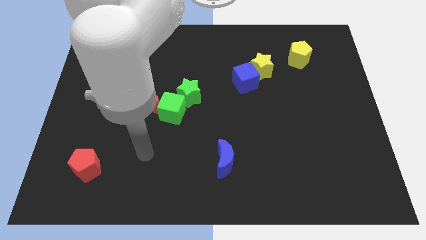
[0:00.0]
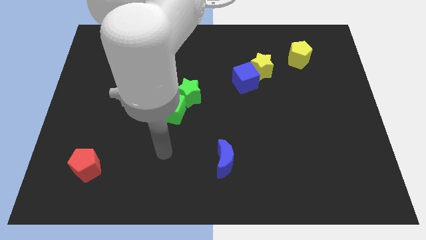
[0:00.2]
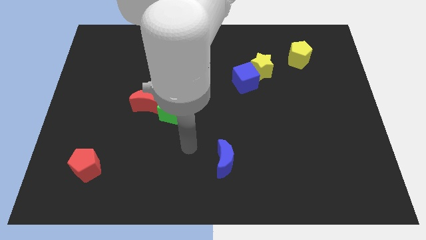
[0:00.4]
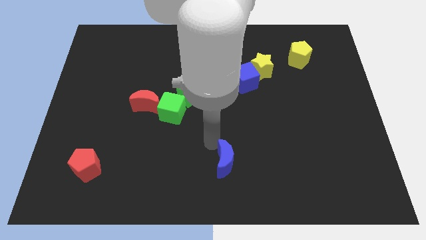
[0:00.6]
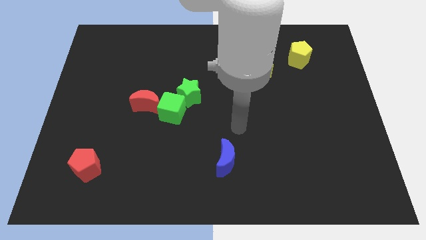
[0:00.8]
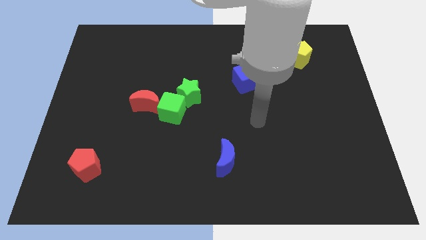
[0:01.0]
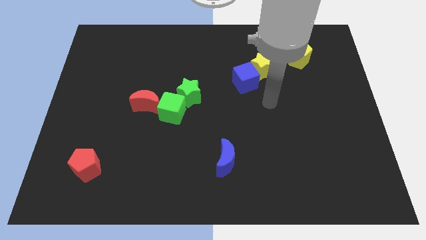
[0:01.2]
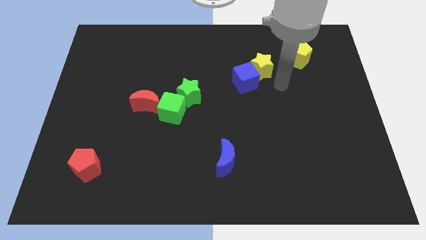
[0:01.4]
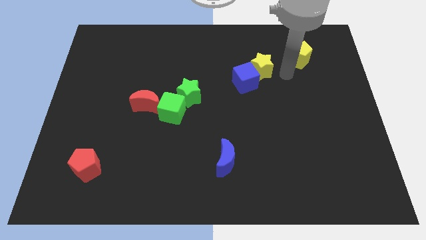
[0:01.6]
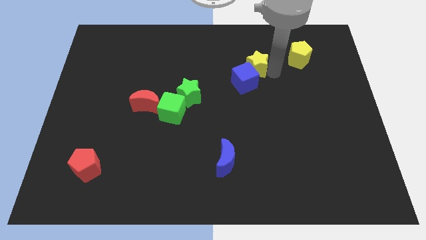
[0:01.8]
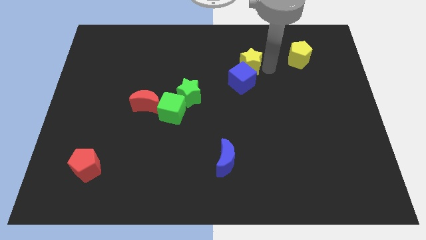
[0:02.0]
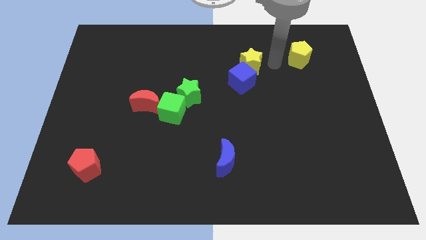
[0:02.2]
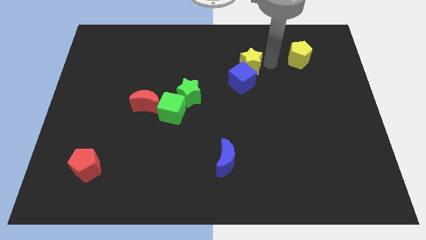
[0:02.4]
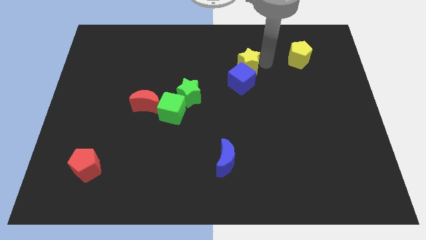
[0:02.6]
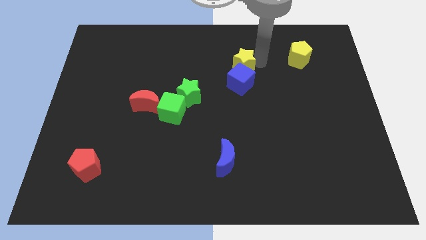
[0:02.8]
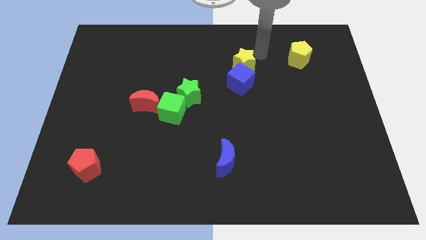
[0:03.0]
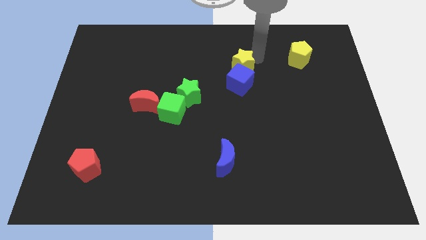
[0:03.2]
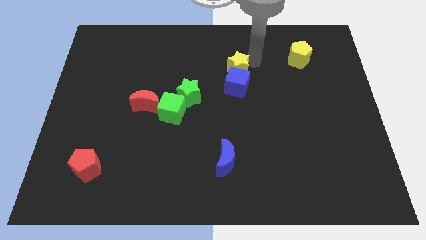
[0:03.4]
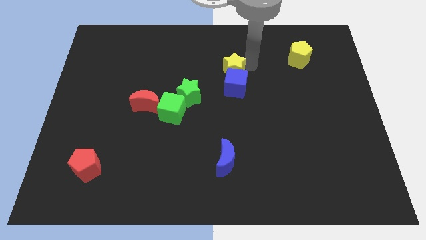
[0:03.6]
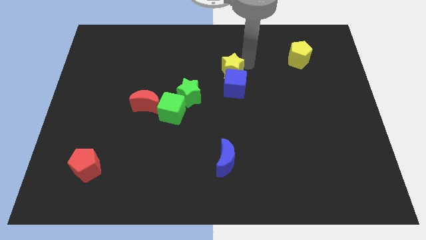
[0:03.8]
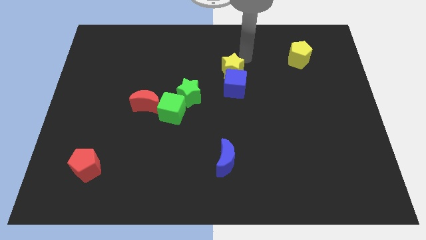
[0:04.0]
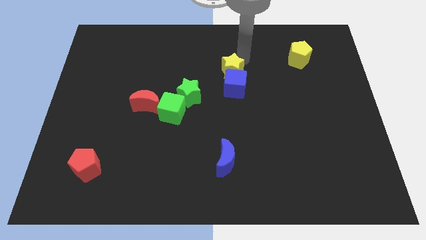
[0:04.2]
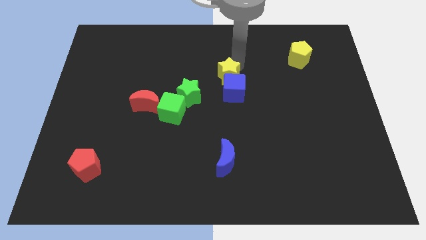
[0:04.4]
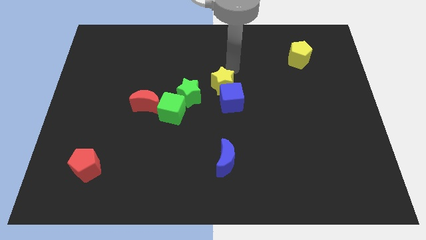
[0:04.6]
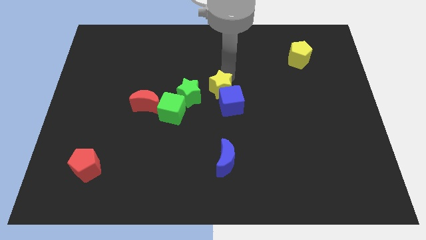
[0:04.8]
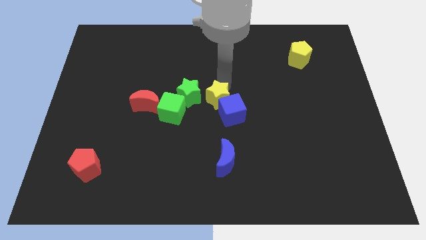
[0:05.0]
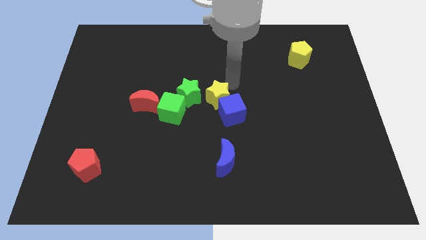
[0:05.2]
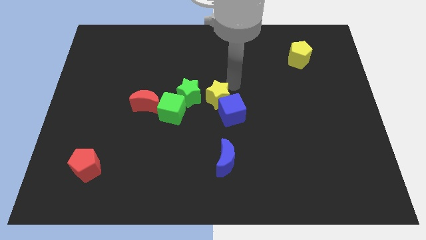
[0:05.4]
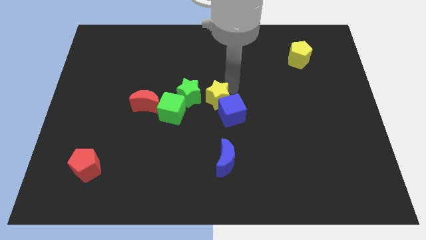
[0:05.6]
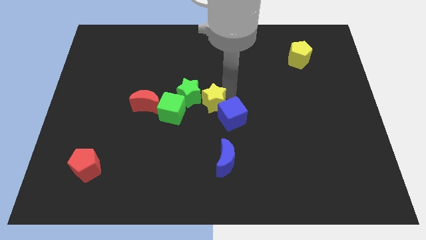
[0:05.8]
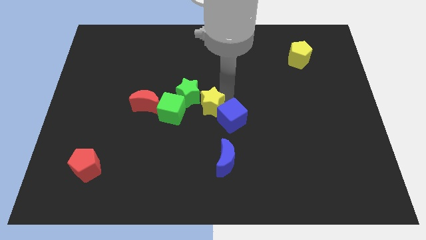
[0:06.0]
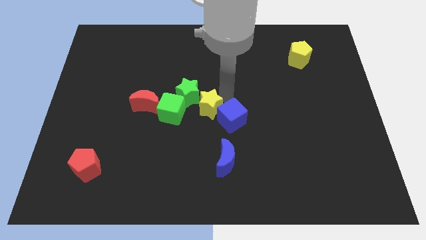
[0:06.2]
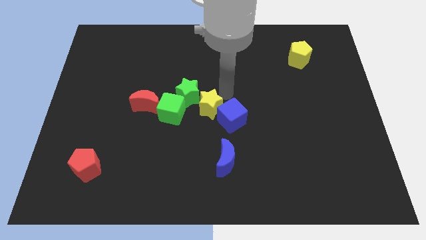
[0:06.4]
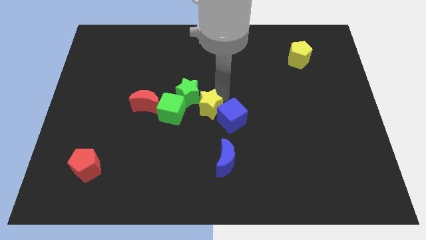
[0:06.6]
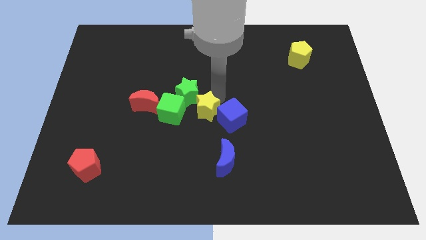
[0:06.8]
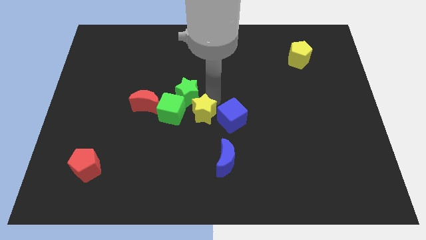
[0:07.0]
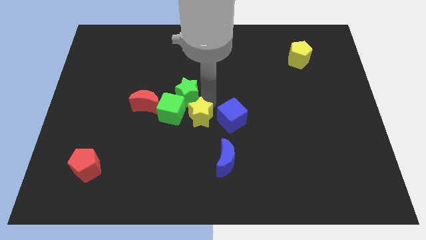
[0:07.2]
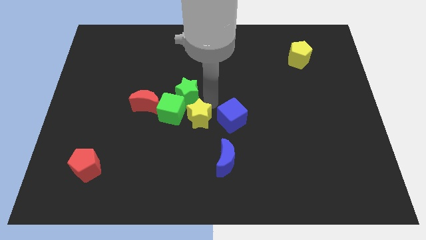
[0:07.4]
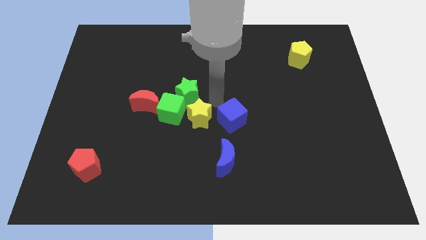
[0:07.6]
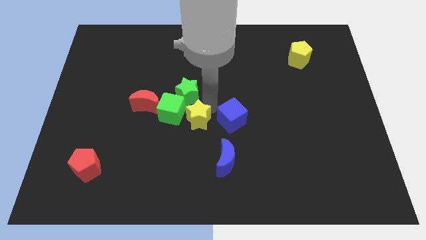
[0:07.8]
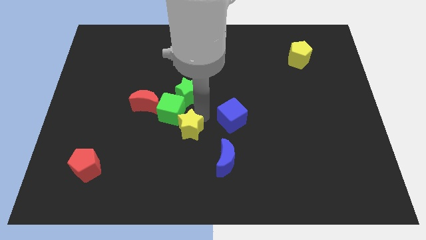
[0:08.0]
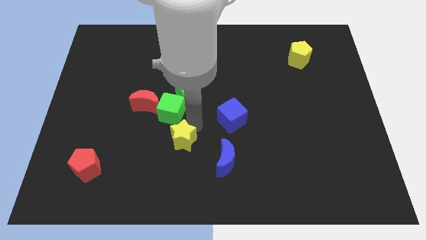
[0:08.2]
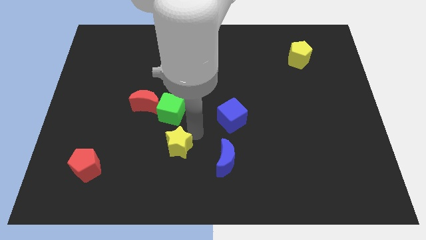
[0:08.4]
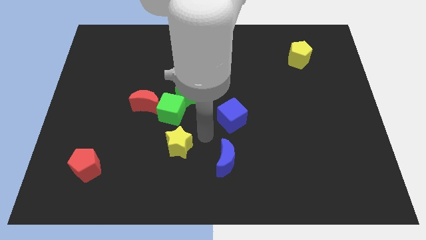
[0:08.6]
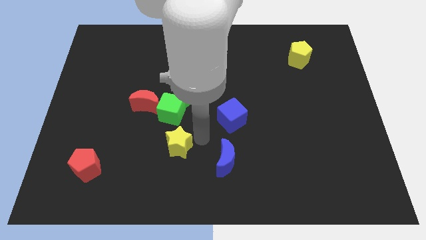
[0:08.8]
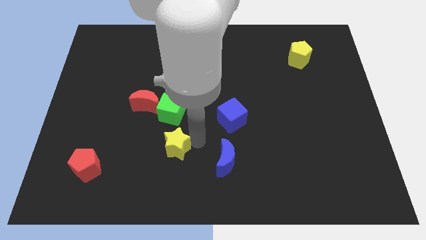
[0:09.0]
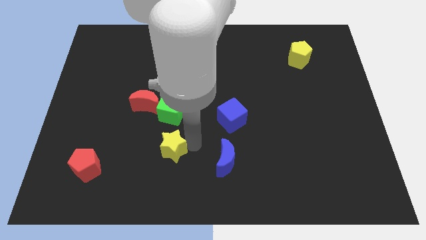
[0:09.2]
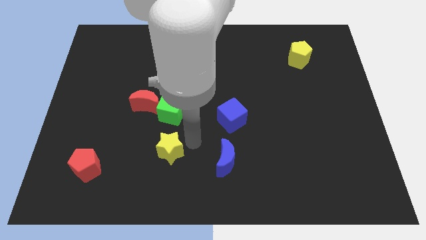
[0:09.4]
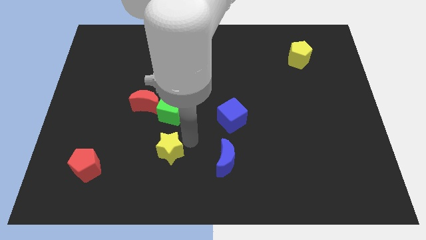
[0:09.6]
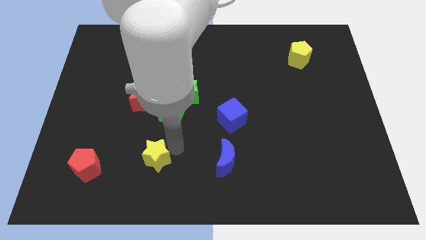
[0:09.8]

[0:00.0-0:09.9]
put the yellow star right of the red pentagon

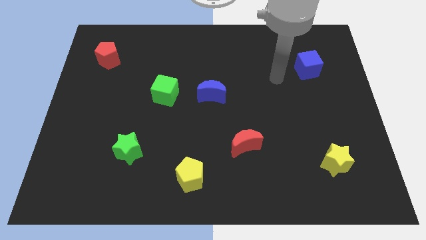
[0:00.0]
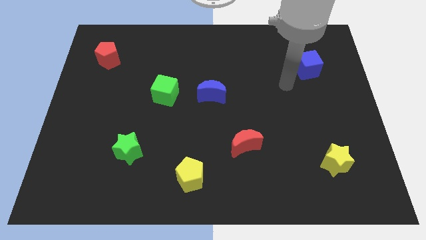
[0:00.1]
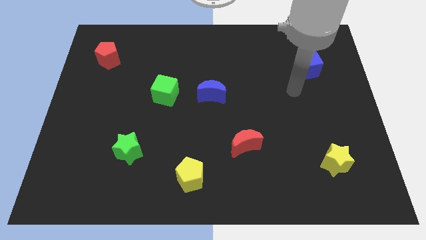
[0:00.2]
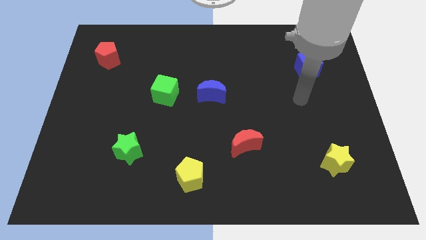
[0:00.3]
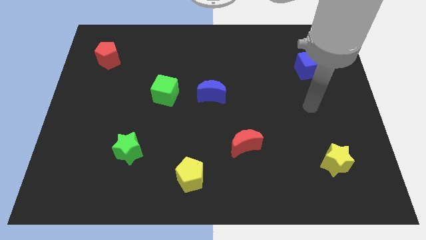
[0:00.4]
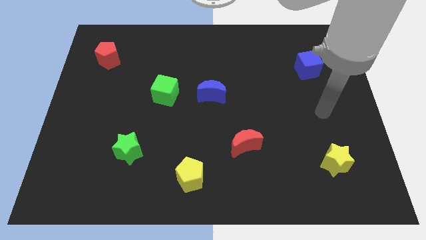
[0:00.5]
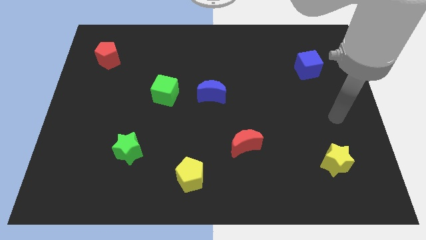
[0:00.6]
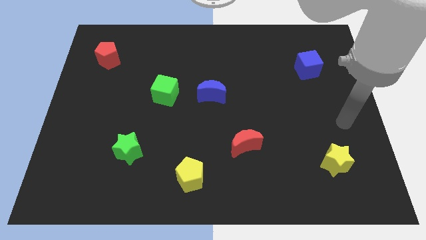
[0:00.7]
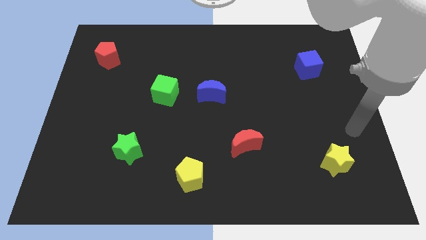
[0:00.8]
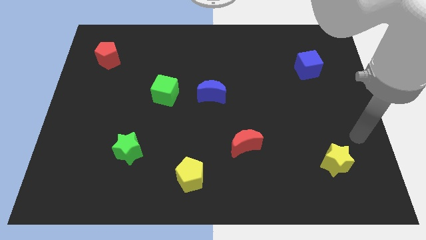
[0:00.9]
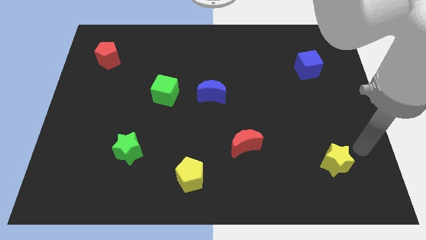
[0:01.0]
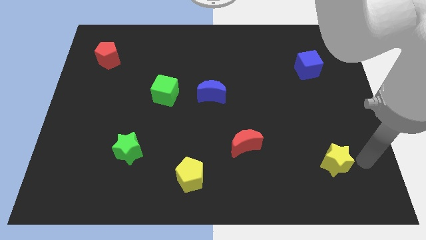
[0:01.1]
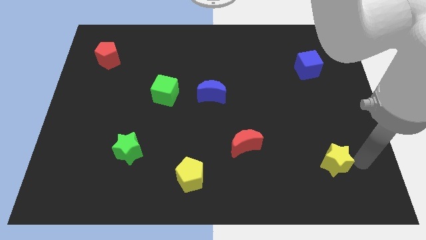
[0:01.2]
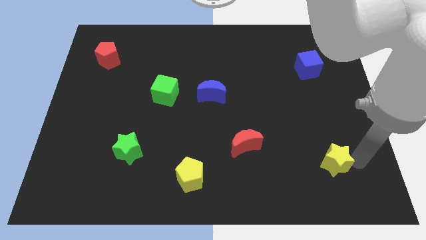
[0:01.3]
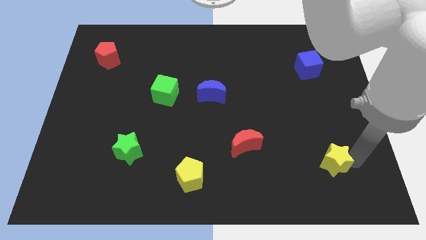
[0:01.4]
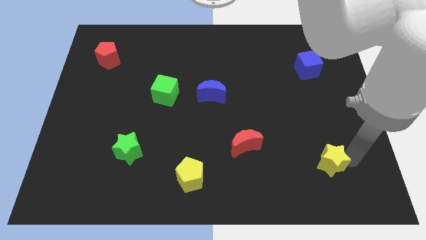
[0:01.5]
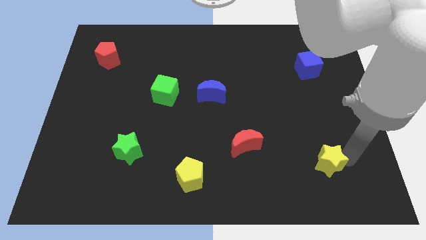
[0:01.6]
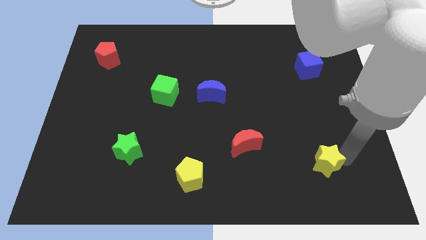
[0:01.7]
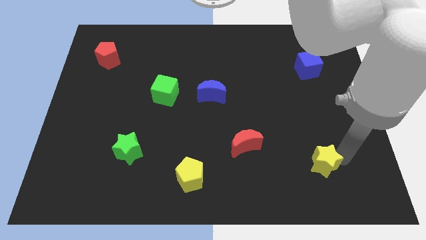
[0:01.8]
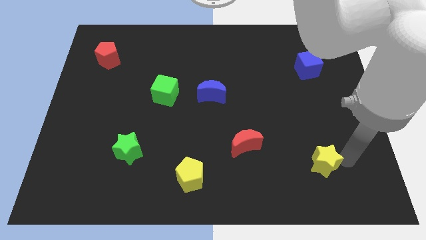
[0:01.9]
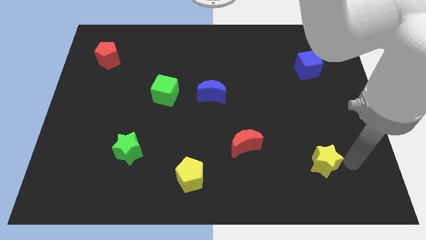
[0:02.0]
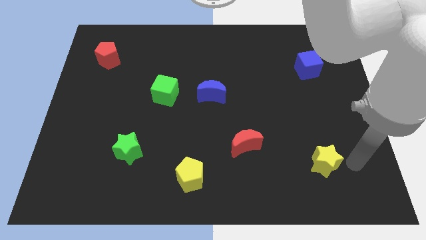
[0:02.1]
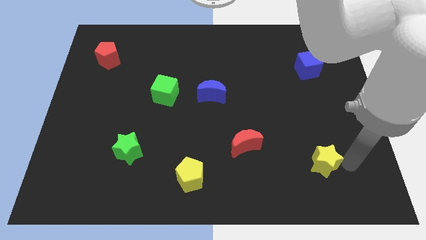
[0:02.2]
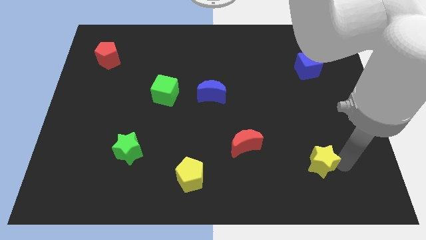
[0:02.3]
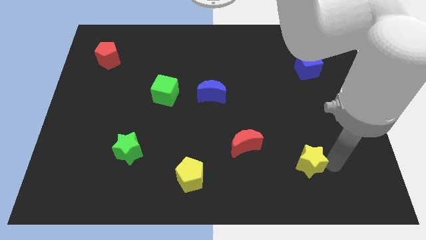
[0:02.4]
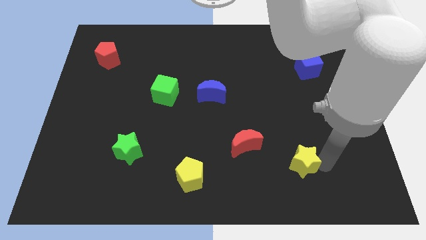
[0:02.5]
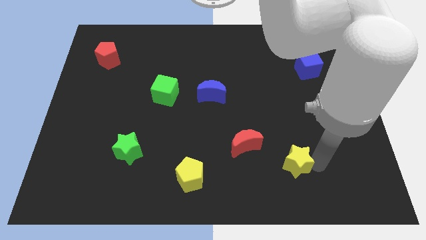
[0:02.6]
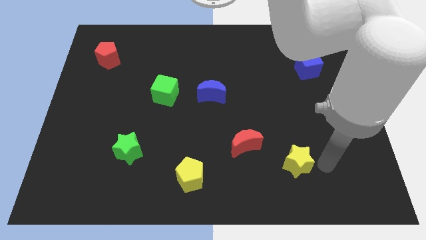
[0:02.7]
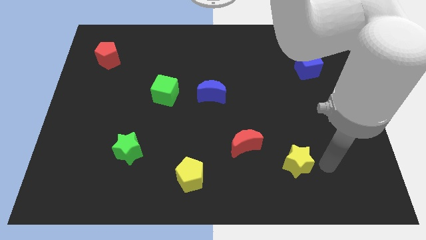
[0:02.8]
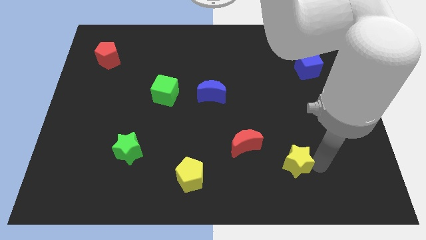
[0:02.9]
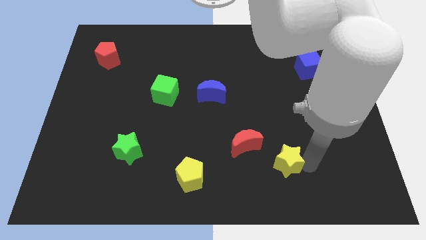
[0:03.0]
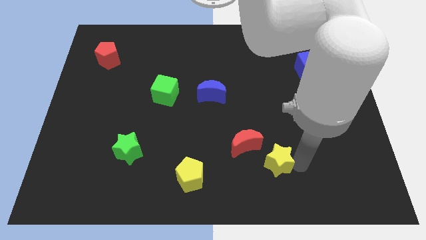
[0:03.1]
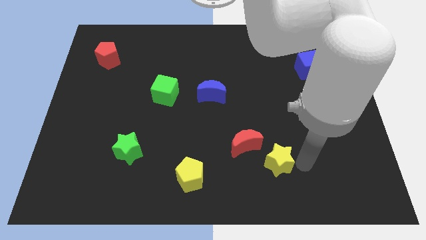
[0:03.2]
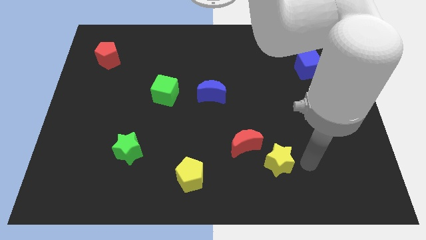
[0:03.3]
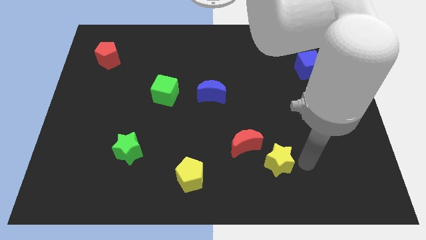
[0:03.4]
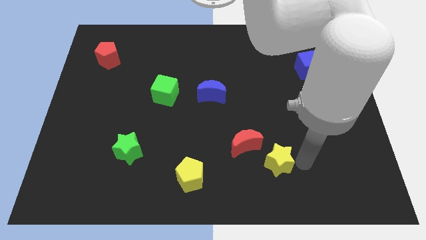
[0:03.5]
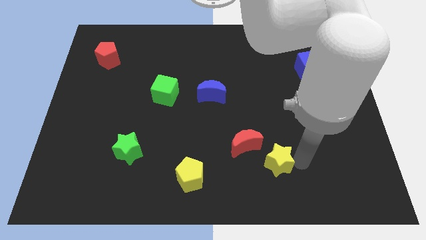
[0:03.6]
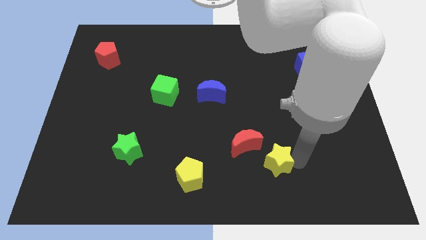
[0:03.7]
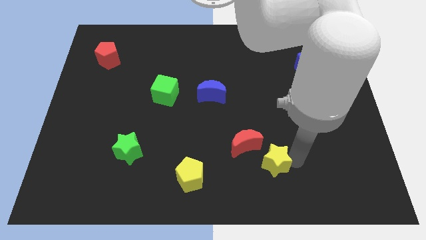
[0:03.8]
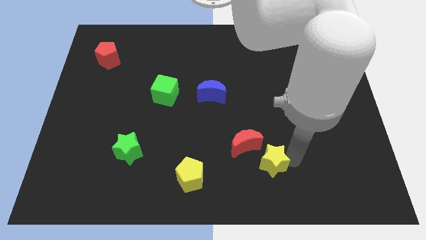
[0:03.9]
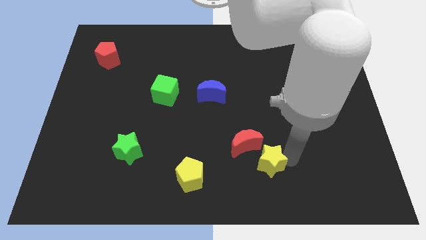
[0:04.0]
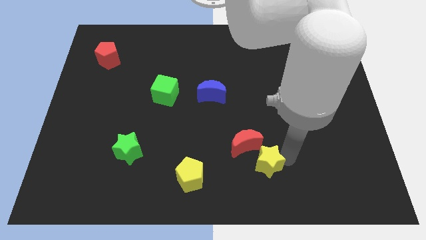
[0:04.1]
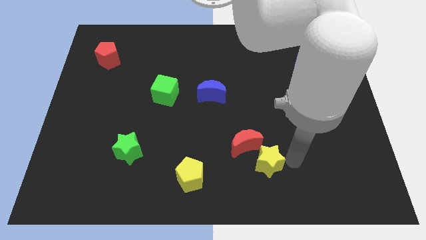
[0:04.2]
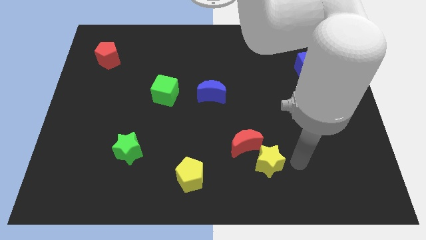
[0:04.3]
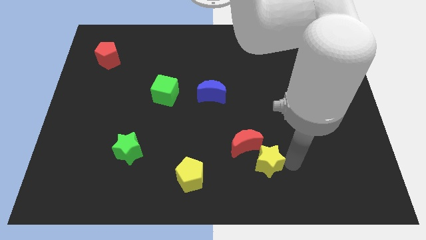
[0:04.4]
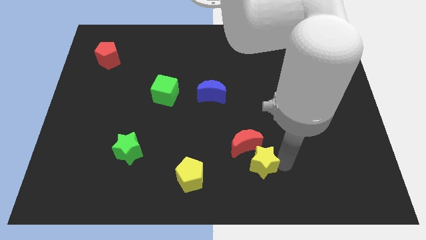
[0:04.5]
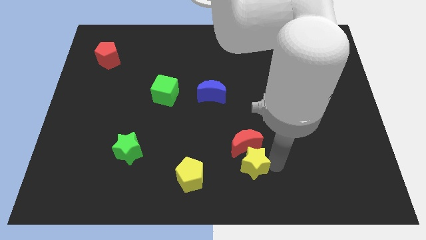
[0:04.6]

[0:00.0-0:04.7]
put the yellow star to the bottom left side of the red moon
